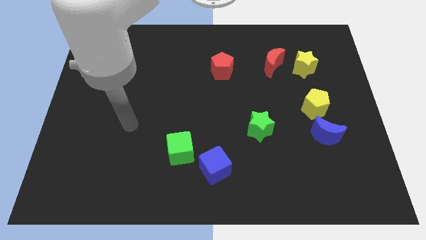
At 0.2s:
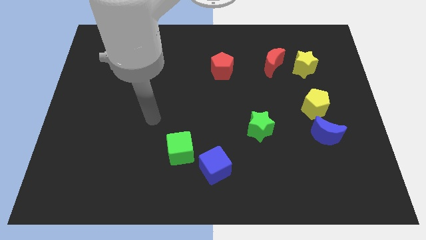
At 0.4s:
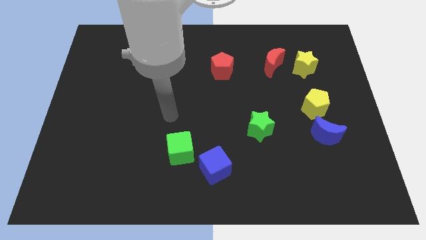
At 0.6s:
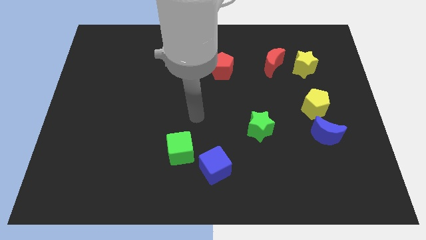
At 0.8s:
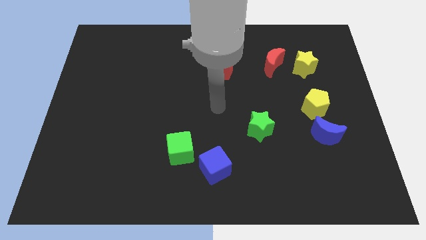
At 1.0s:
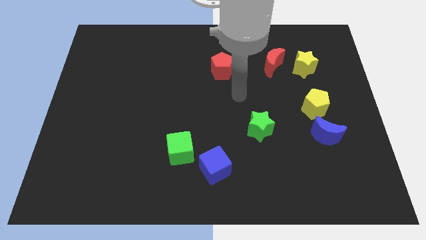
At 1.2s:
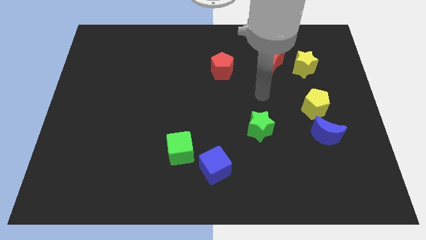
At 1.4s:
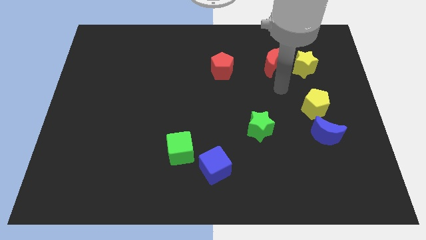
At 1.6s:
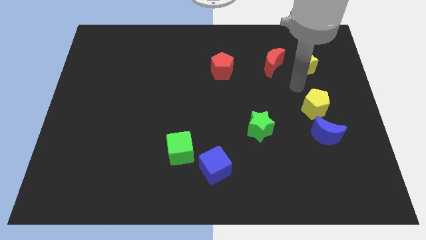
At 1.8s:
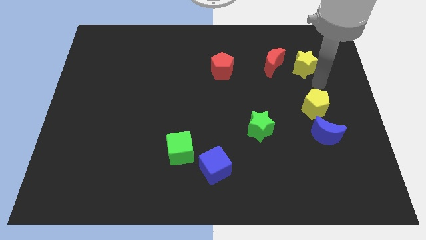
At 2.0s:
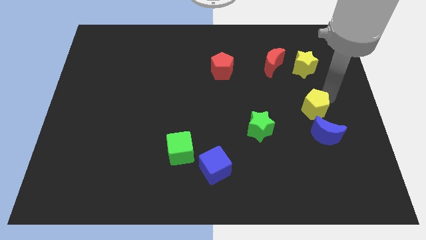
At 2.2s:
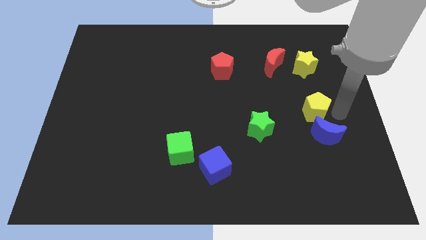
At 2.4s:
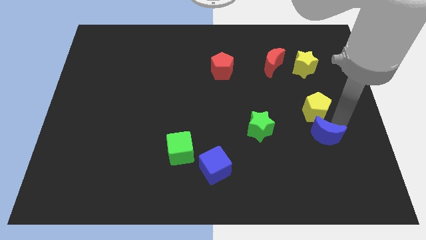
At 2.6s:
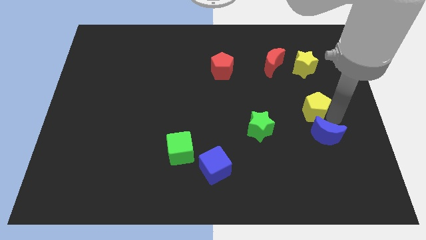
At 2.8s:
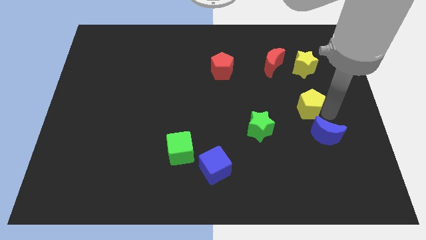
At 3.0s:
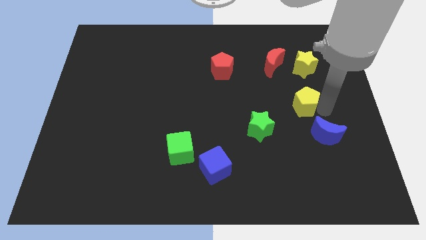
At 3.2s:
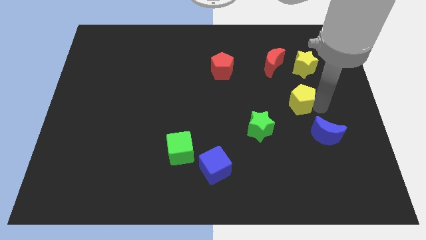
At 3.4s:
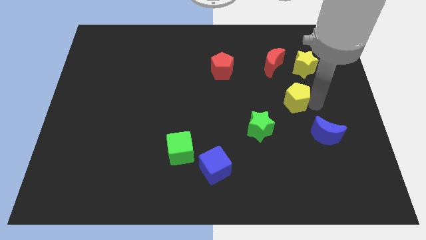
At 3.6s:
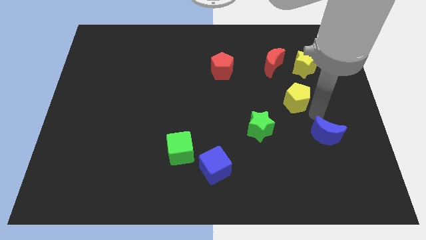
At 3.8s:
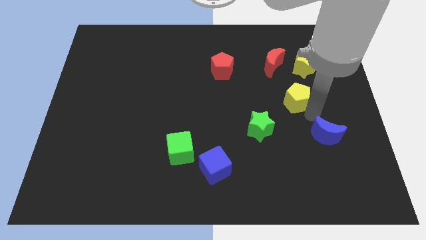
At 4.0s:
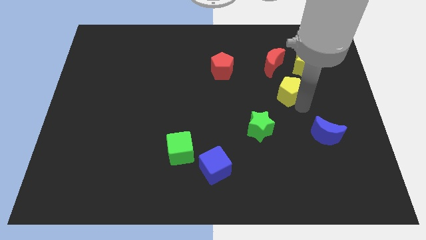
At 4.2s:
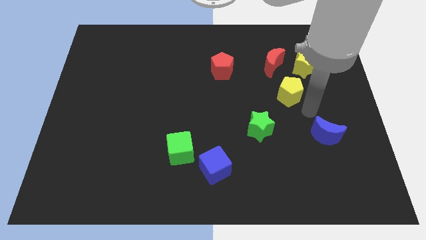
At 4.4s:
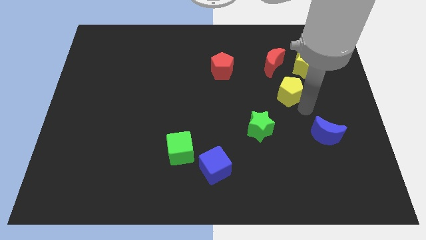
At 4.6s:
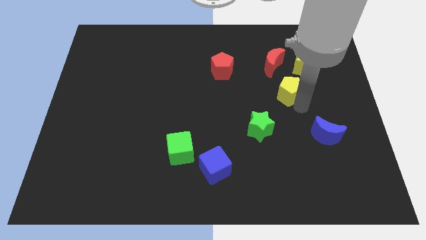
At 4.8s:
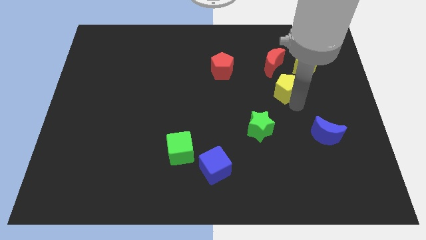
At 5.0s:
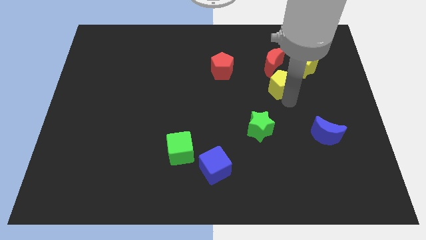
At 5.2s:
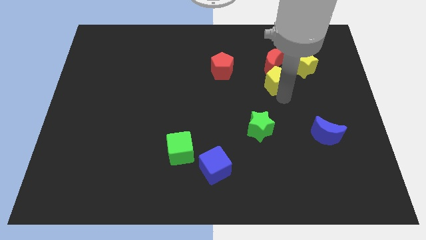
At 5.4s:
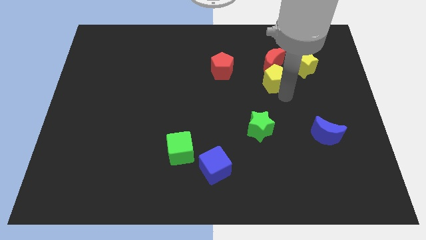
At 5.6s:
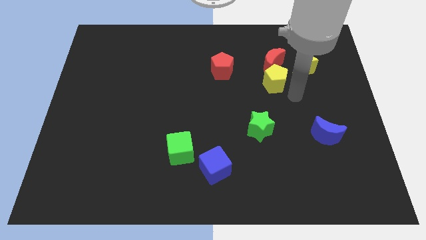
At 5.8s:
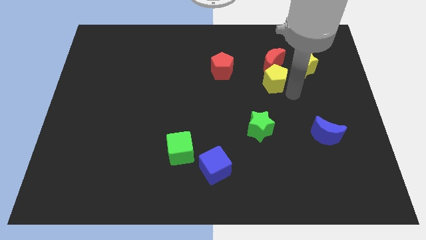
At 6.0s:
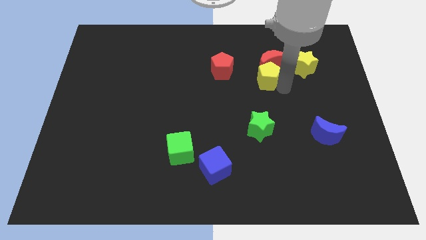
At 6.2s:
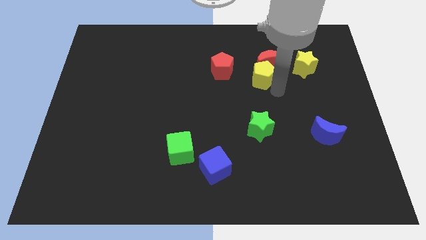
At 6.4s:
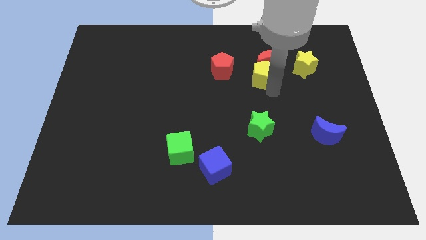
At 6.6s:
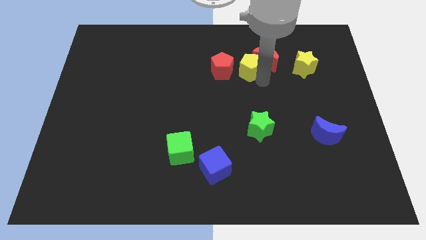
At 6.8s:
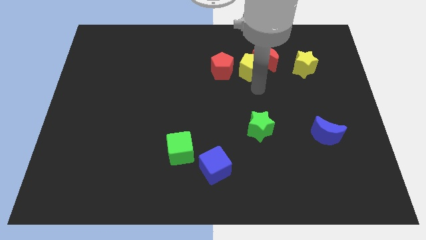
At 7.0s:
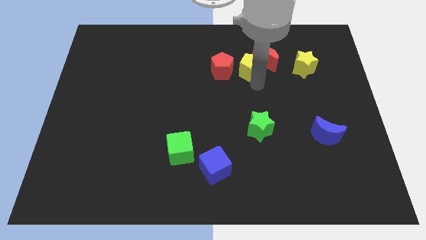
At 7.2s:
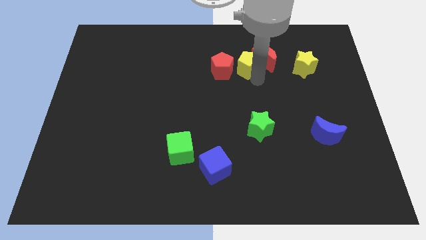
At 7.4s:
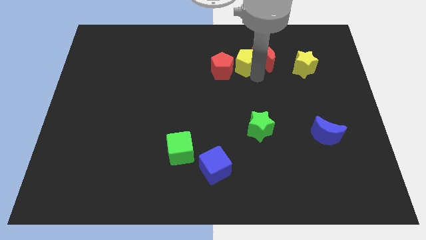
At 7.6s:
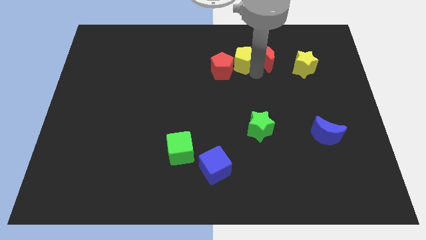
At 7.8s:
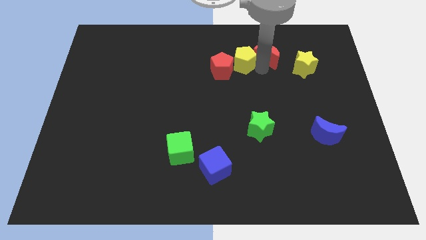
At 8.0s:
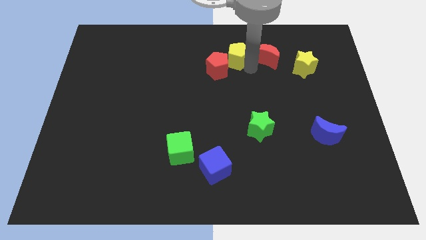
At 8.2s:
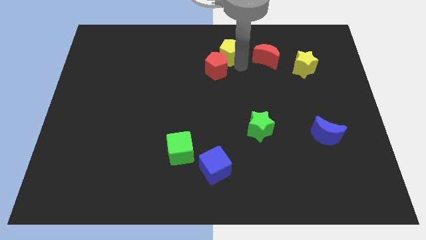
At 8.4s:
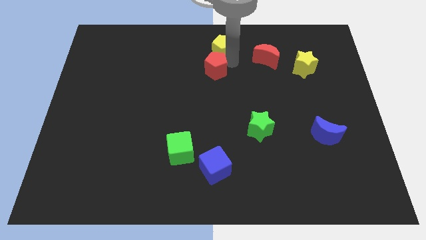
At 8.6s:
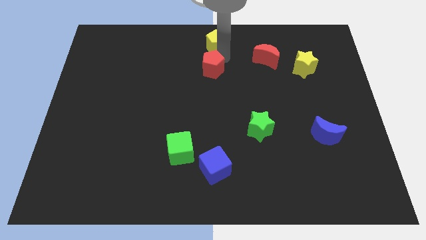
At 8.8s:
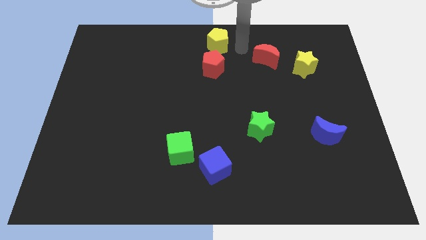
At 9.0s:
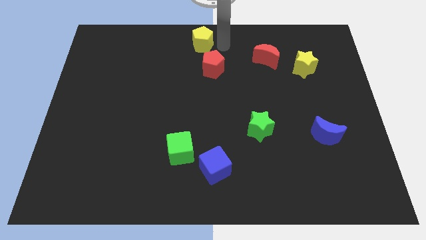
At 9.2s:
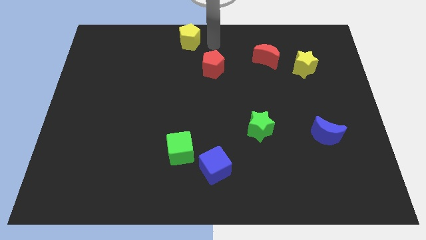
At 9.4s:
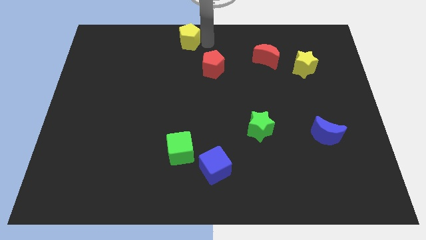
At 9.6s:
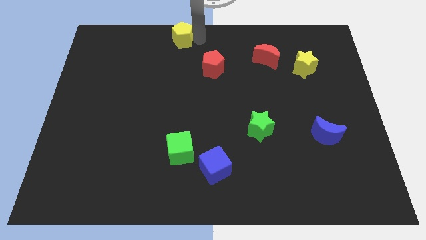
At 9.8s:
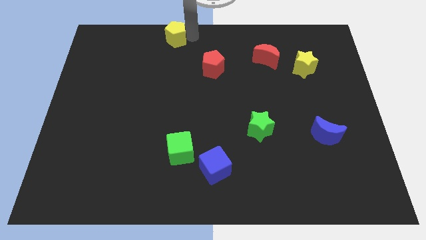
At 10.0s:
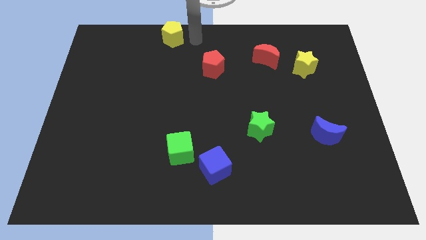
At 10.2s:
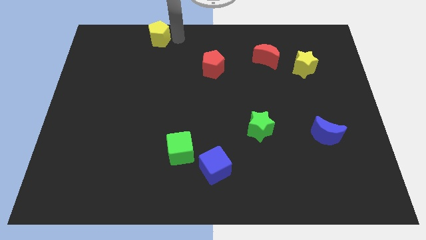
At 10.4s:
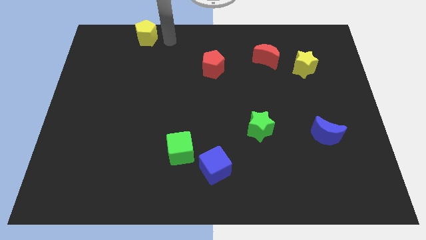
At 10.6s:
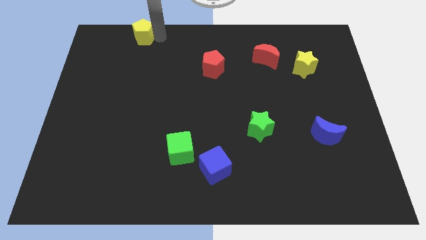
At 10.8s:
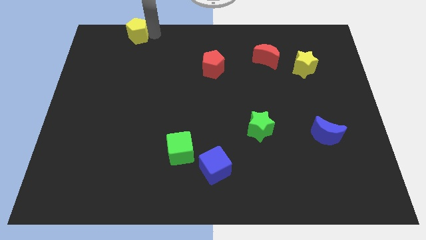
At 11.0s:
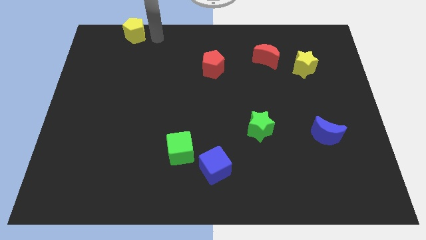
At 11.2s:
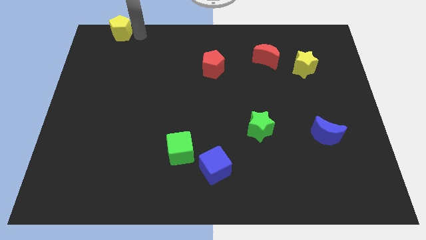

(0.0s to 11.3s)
put the yellow pentagon to the top left
